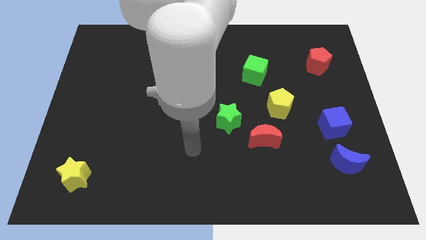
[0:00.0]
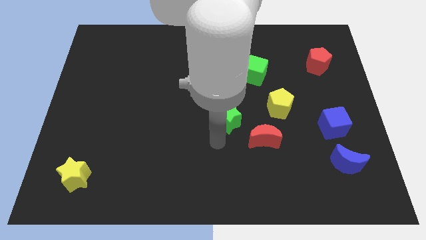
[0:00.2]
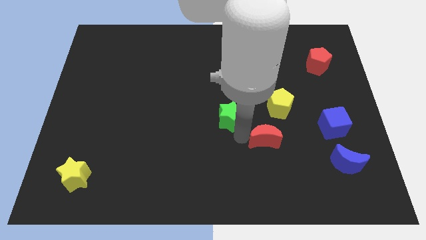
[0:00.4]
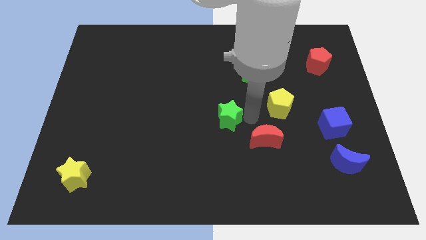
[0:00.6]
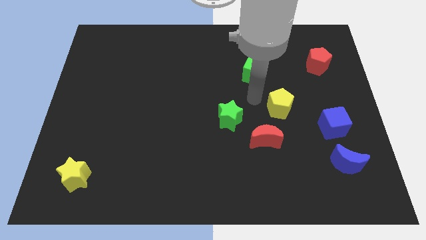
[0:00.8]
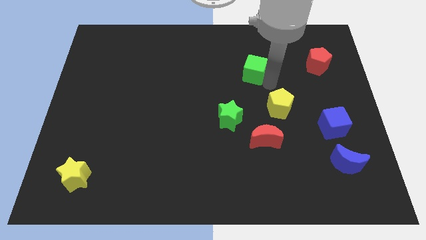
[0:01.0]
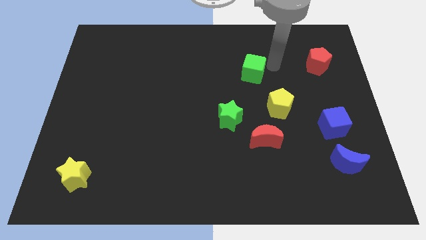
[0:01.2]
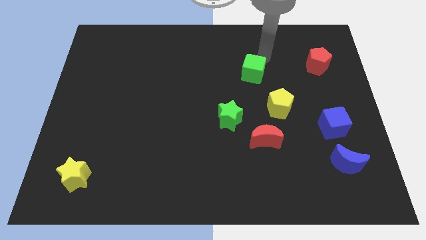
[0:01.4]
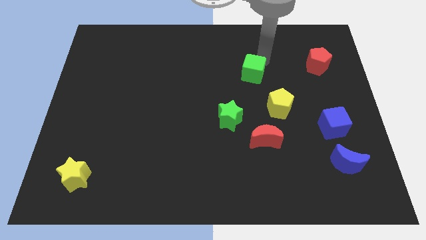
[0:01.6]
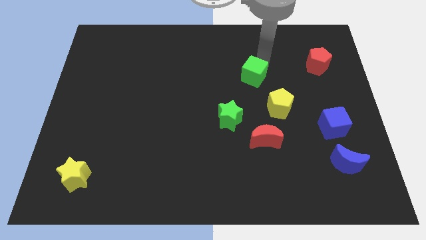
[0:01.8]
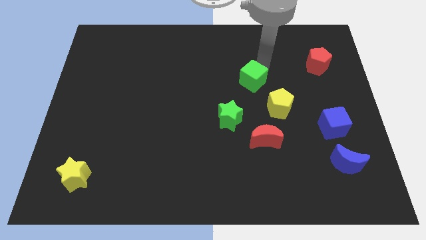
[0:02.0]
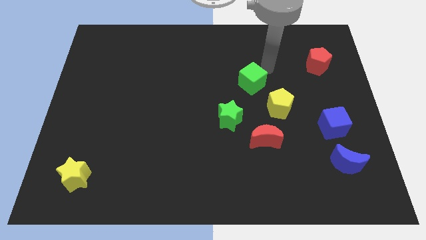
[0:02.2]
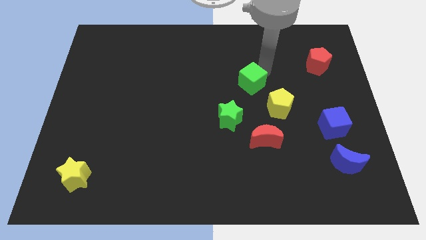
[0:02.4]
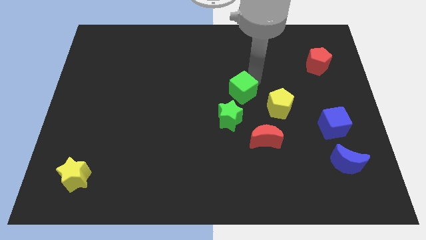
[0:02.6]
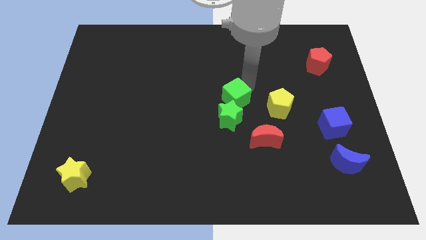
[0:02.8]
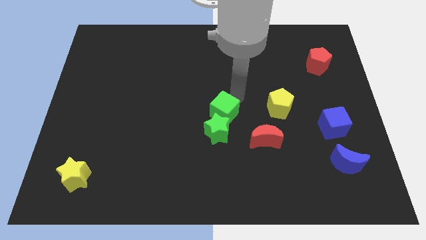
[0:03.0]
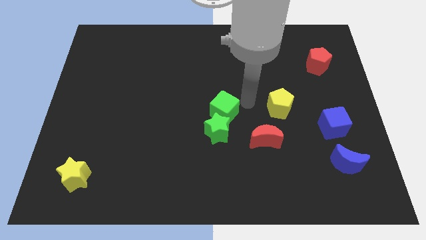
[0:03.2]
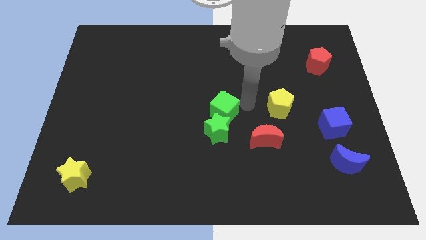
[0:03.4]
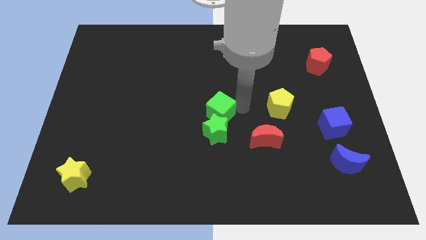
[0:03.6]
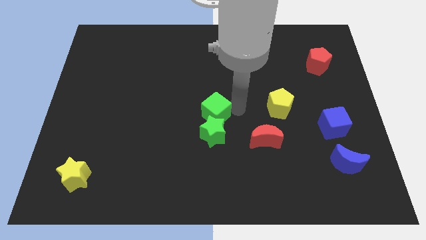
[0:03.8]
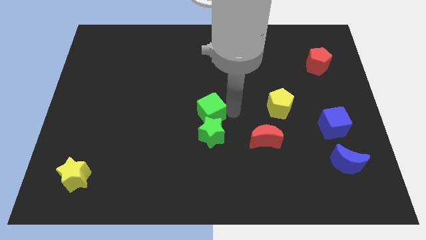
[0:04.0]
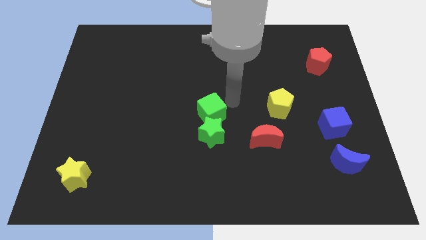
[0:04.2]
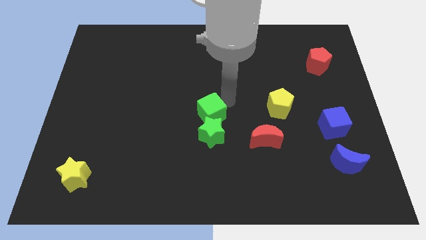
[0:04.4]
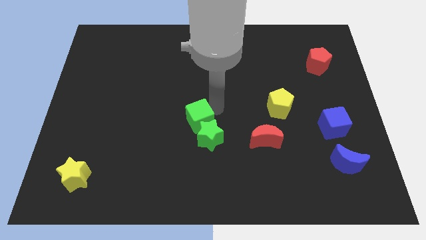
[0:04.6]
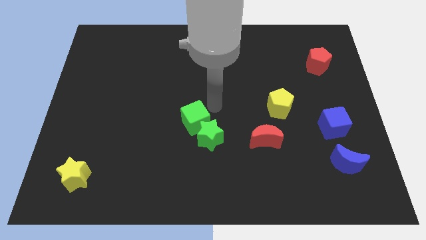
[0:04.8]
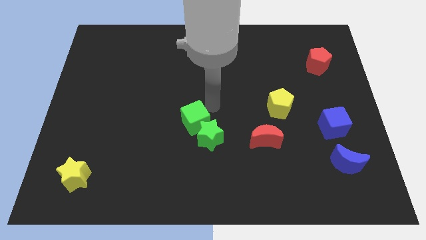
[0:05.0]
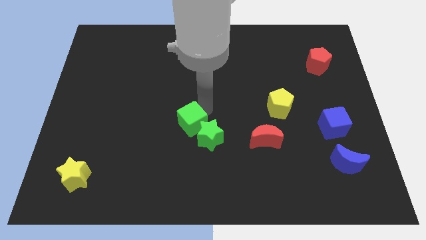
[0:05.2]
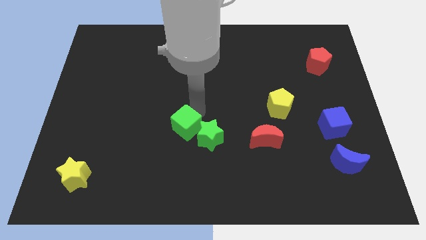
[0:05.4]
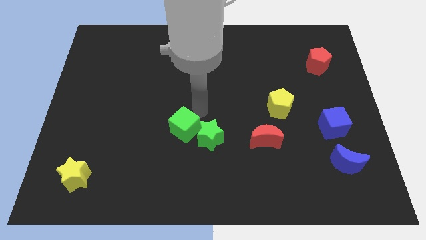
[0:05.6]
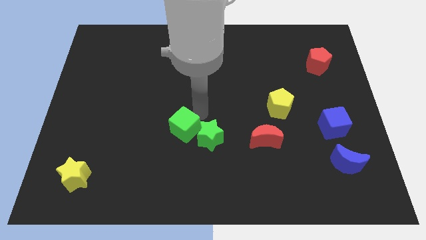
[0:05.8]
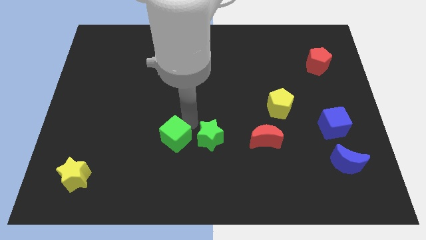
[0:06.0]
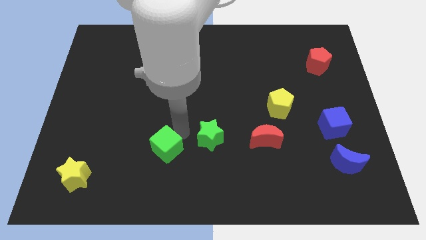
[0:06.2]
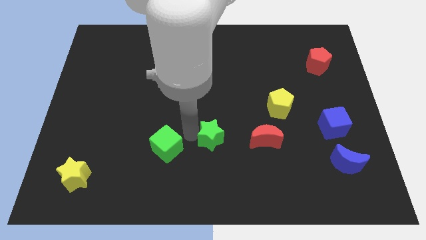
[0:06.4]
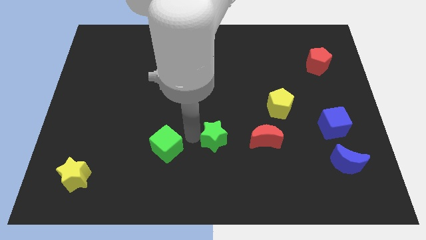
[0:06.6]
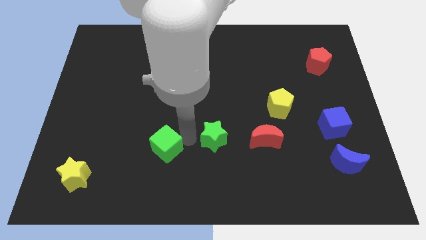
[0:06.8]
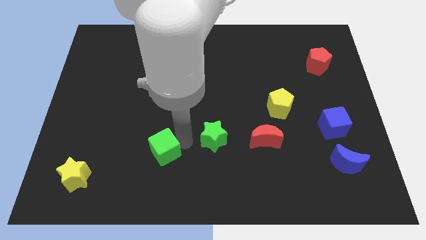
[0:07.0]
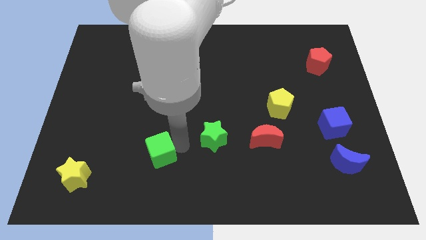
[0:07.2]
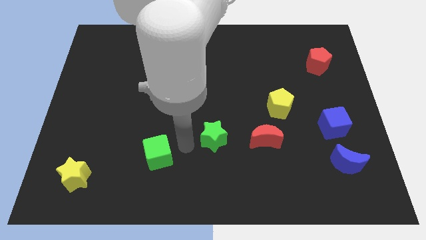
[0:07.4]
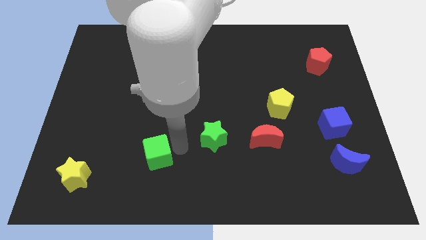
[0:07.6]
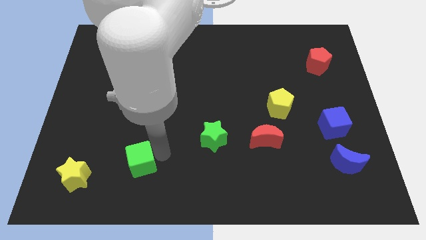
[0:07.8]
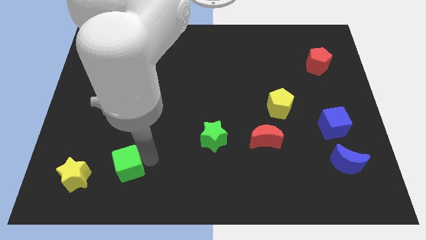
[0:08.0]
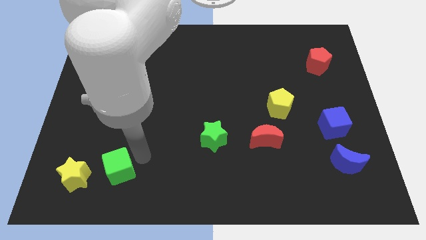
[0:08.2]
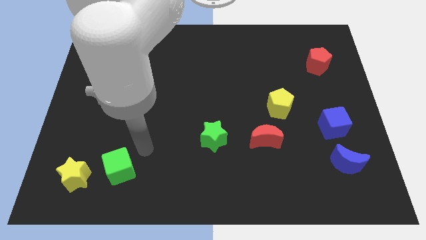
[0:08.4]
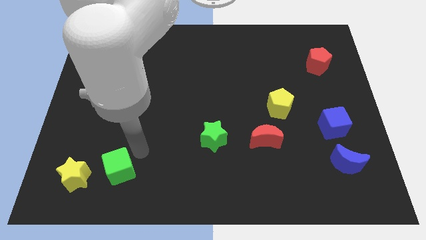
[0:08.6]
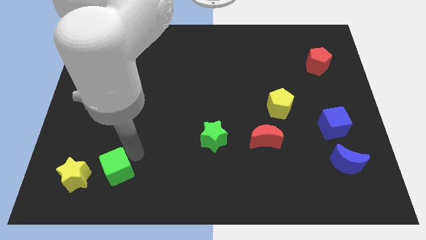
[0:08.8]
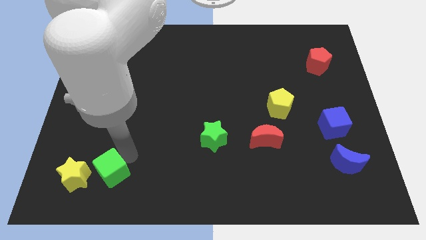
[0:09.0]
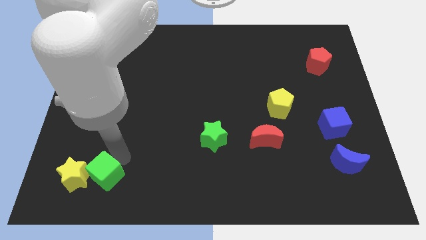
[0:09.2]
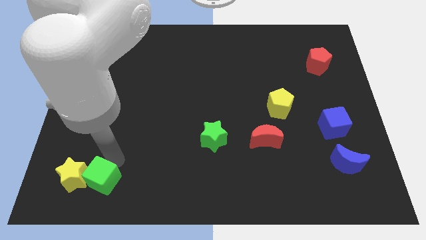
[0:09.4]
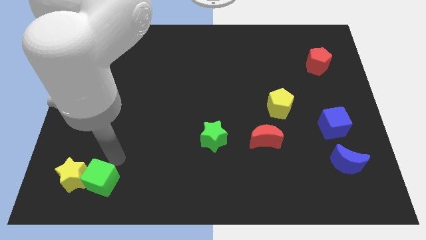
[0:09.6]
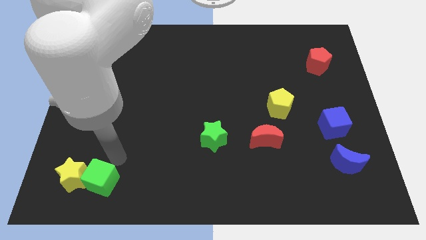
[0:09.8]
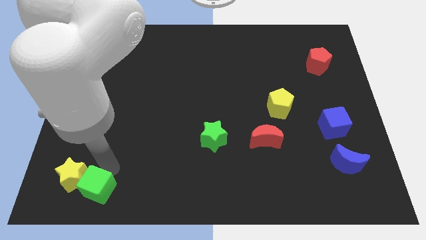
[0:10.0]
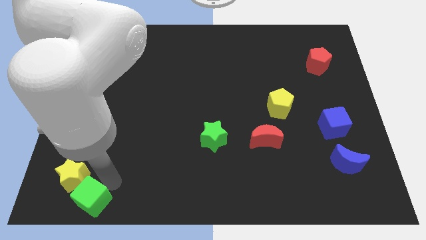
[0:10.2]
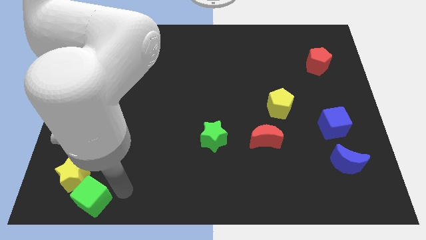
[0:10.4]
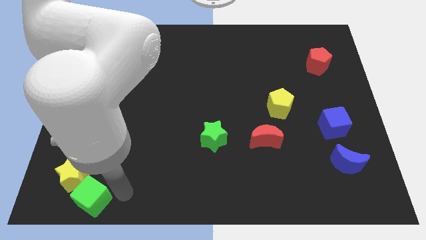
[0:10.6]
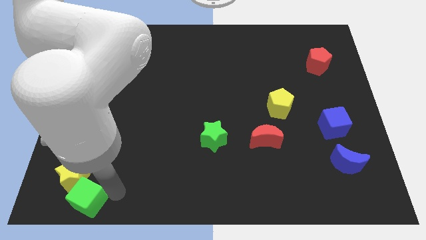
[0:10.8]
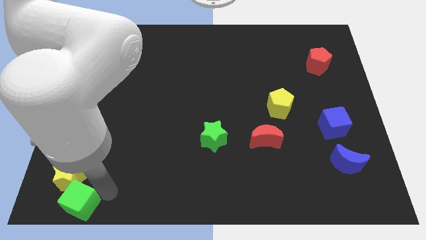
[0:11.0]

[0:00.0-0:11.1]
move the green cube to the bottom left
